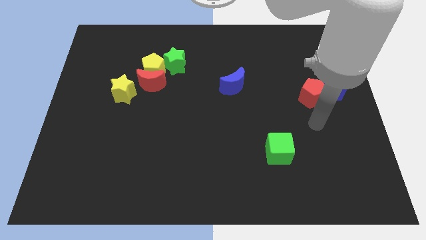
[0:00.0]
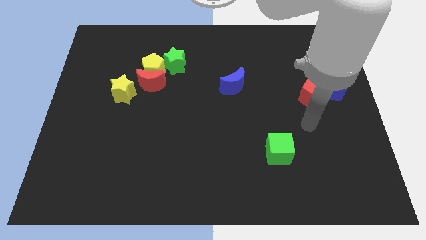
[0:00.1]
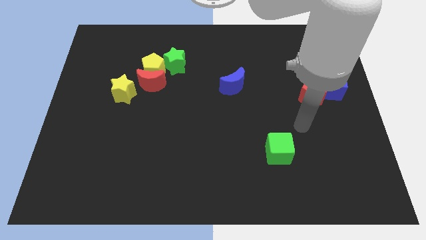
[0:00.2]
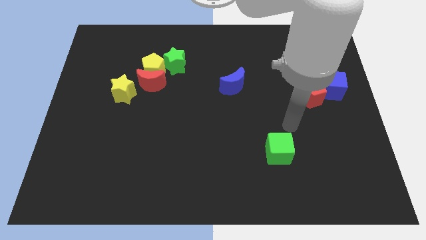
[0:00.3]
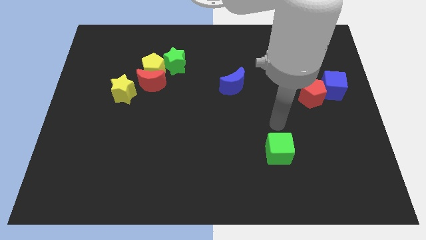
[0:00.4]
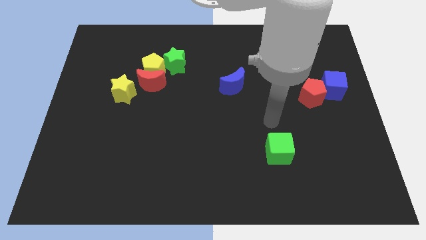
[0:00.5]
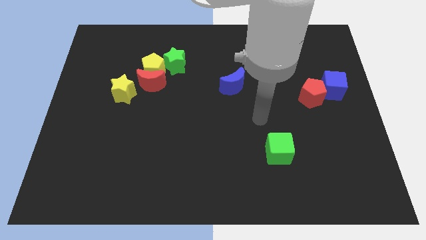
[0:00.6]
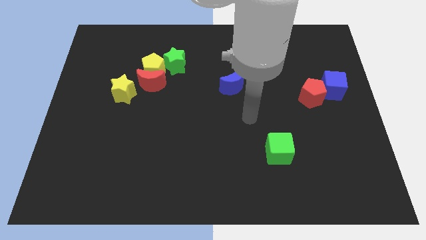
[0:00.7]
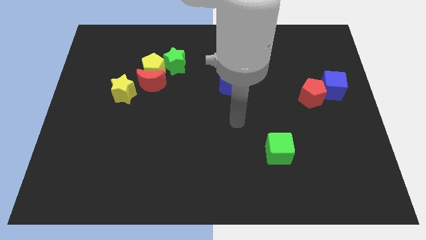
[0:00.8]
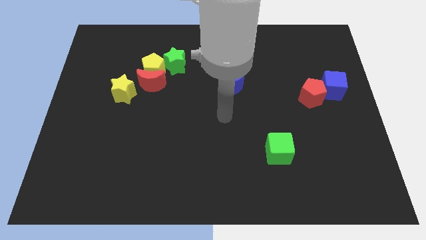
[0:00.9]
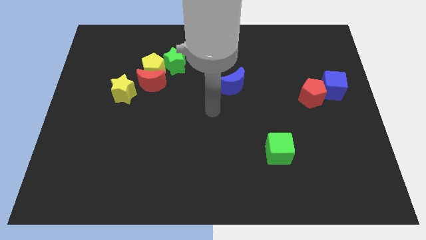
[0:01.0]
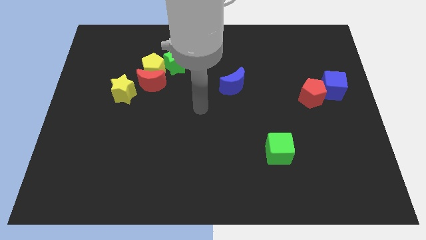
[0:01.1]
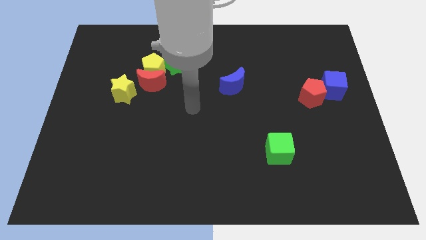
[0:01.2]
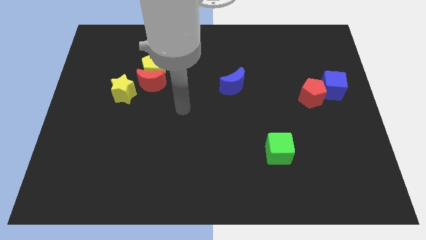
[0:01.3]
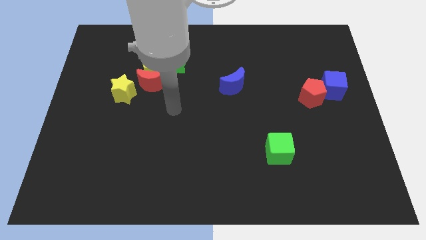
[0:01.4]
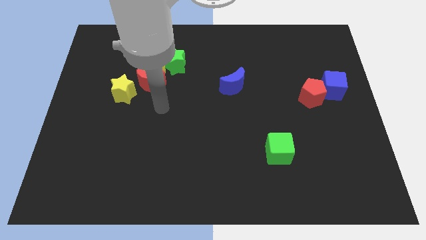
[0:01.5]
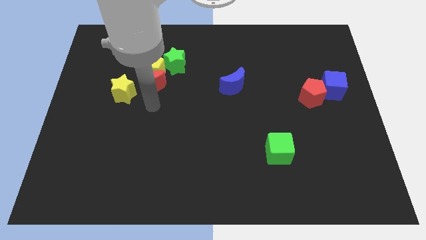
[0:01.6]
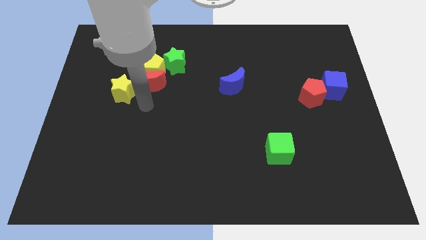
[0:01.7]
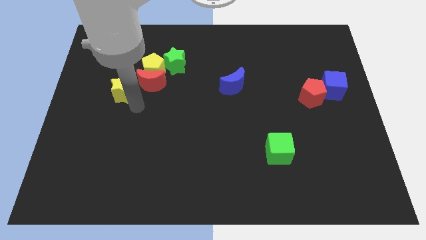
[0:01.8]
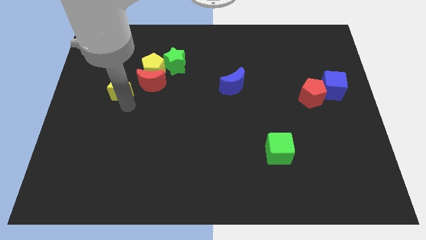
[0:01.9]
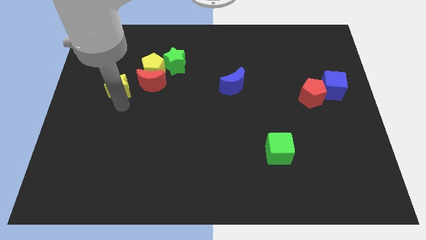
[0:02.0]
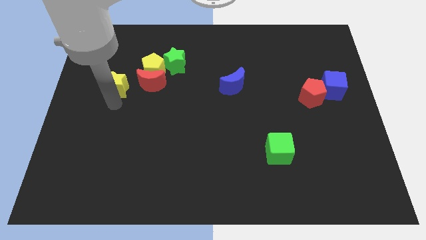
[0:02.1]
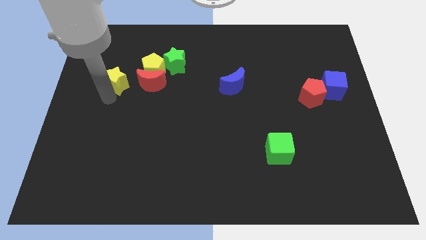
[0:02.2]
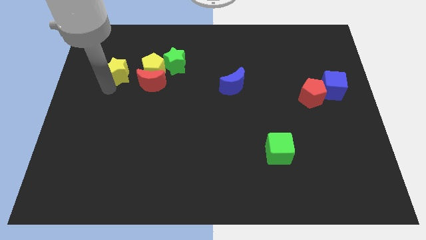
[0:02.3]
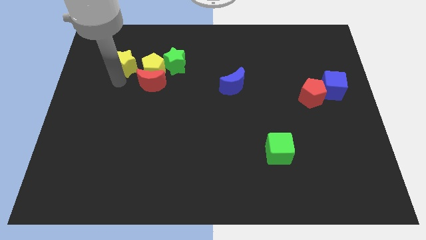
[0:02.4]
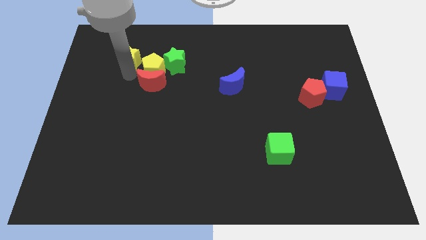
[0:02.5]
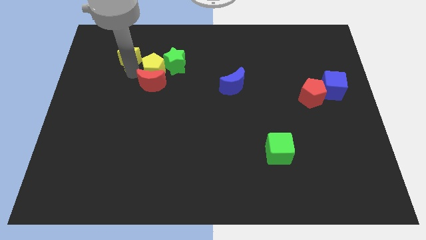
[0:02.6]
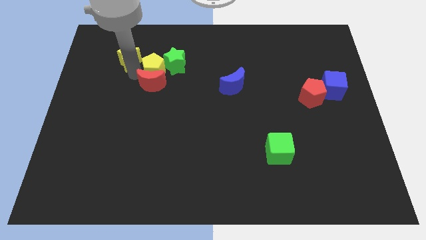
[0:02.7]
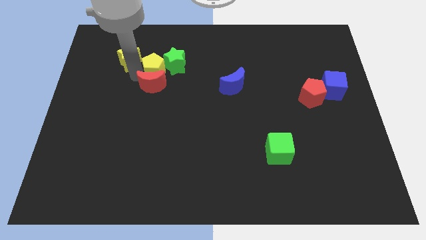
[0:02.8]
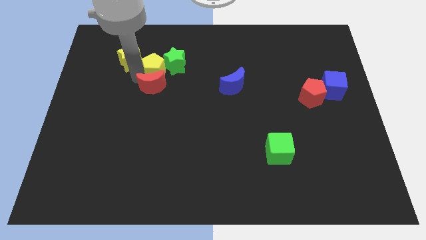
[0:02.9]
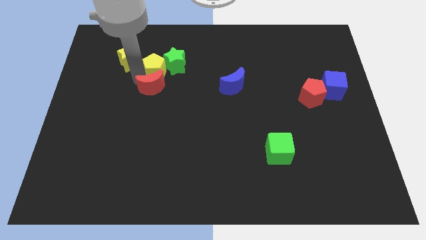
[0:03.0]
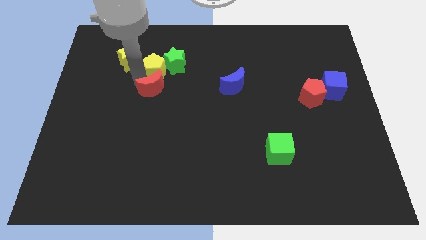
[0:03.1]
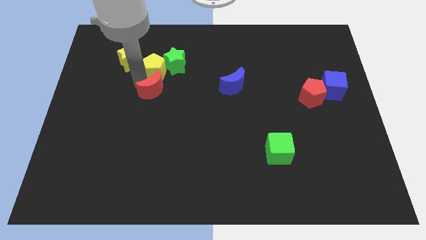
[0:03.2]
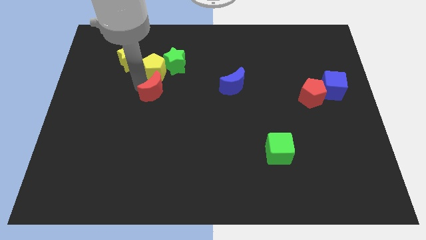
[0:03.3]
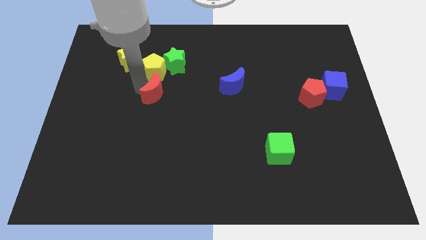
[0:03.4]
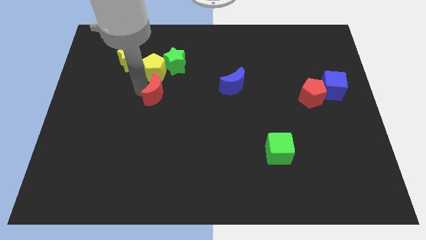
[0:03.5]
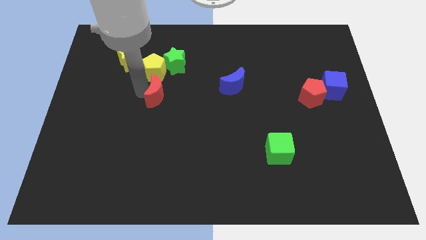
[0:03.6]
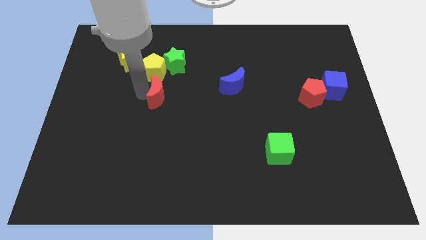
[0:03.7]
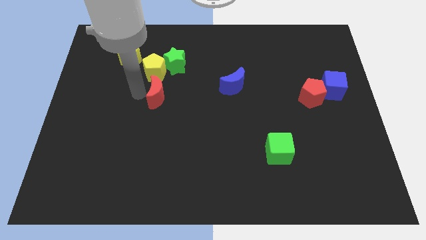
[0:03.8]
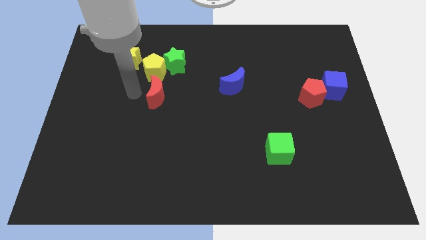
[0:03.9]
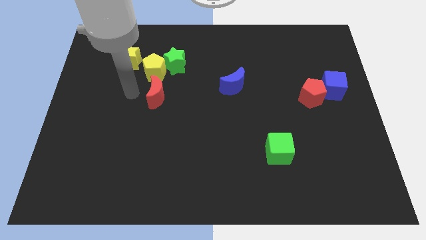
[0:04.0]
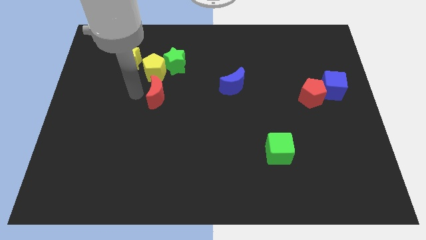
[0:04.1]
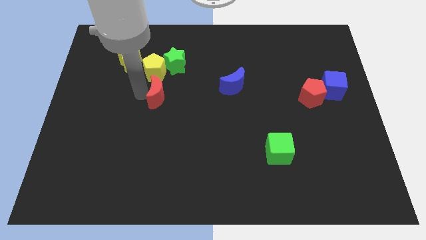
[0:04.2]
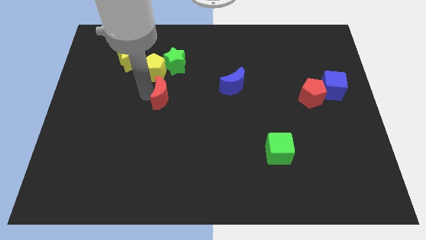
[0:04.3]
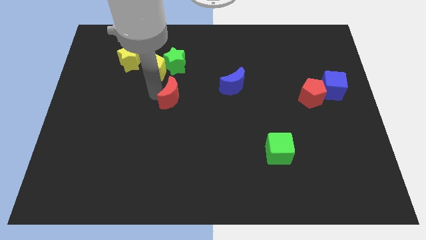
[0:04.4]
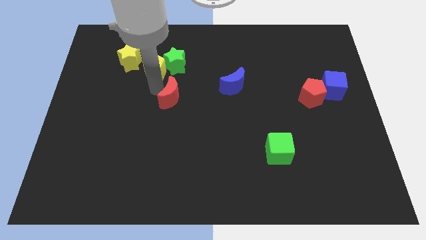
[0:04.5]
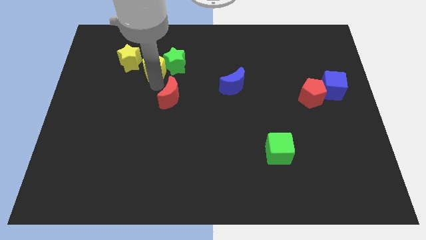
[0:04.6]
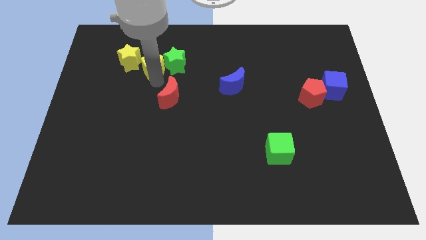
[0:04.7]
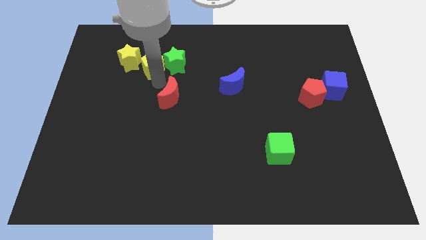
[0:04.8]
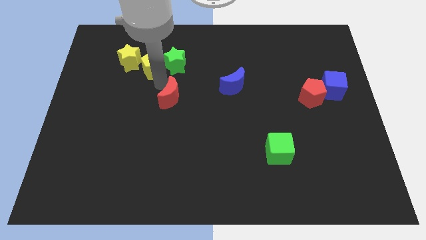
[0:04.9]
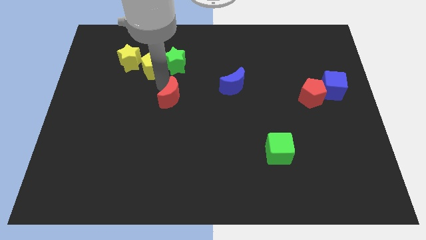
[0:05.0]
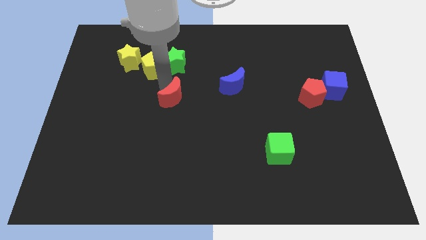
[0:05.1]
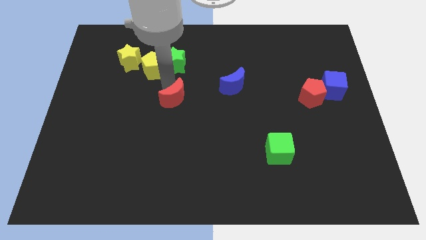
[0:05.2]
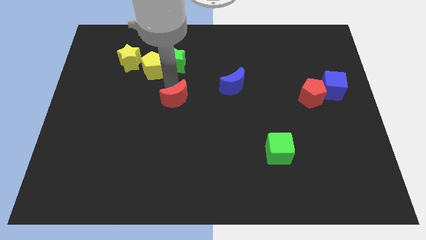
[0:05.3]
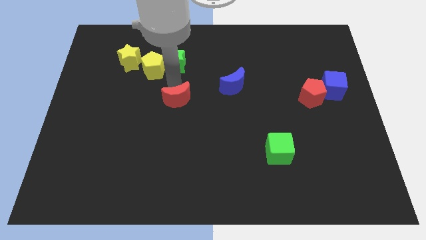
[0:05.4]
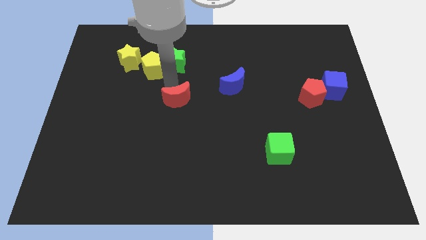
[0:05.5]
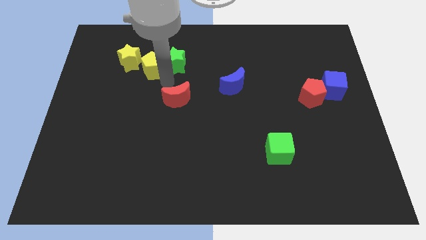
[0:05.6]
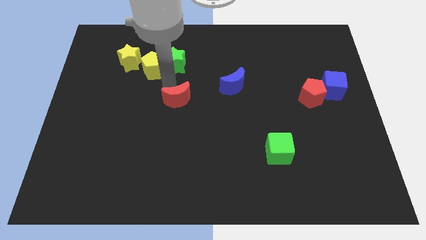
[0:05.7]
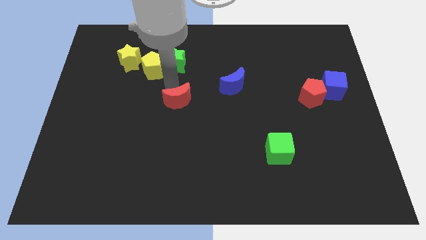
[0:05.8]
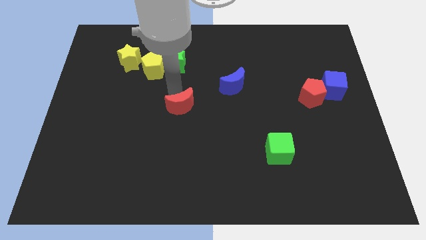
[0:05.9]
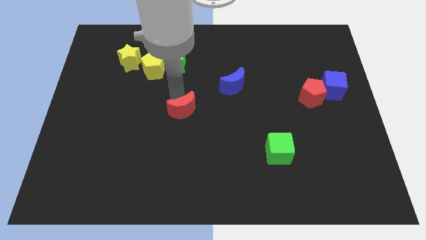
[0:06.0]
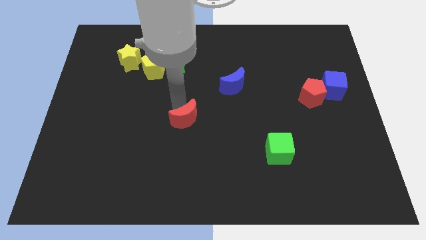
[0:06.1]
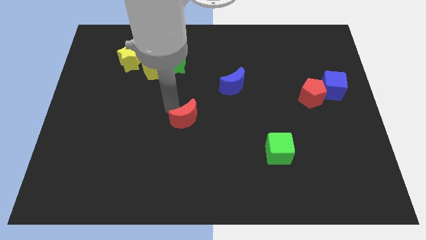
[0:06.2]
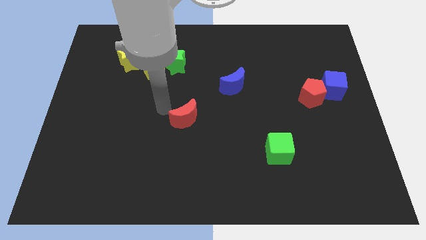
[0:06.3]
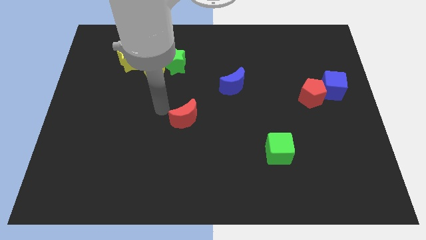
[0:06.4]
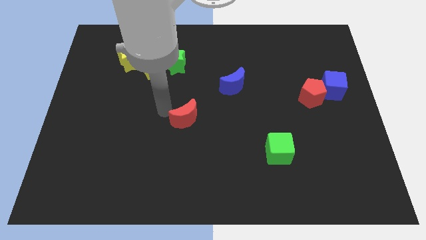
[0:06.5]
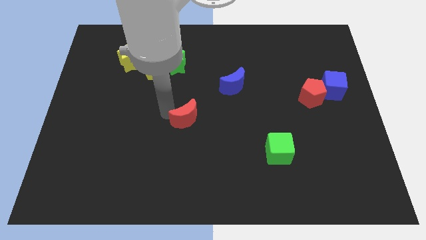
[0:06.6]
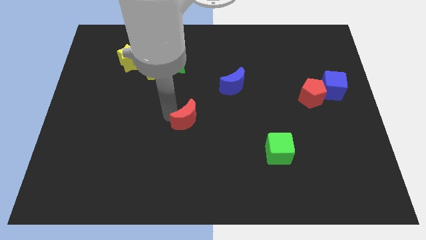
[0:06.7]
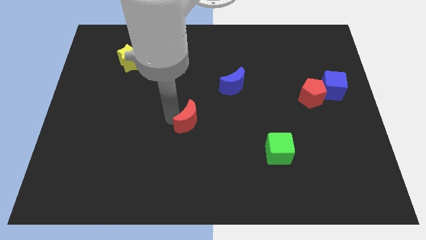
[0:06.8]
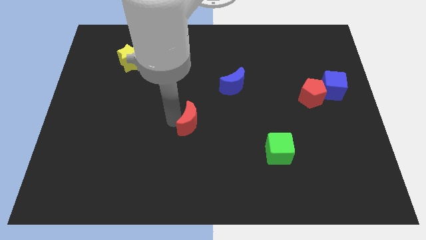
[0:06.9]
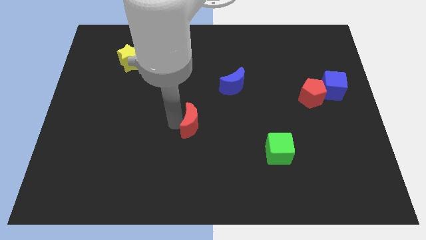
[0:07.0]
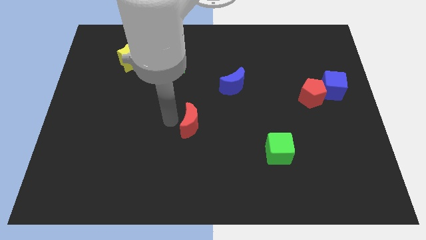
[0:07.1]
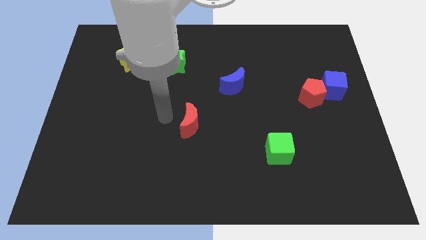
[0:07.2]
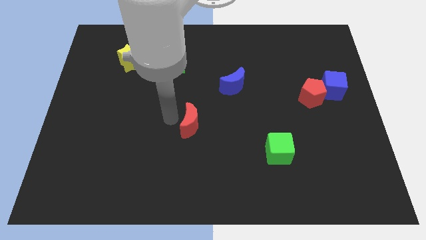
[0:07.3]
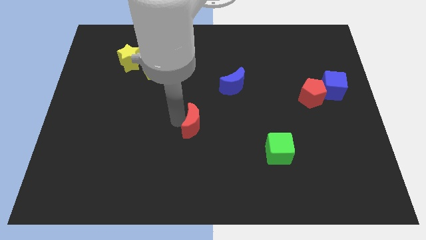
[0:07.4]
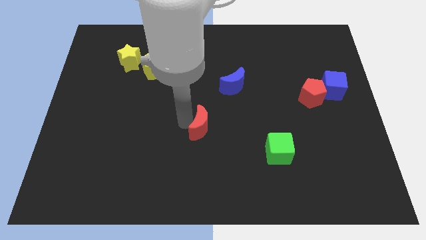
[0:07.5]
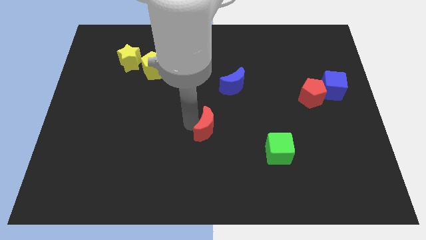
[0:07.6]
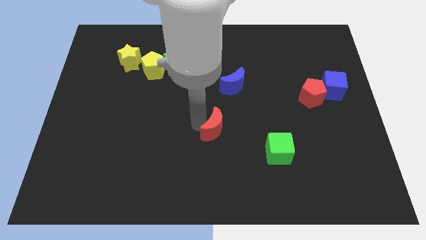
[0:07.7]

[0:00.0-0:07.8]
move the red moon down and right diagonally

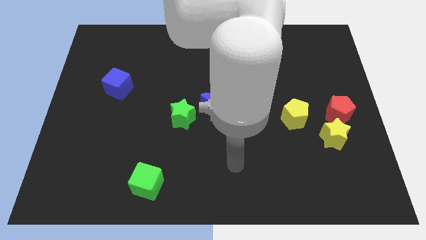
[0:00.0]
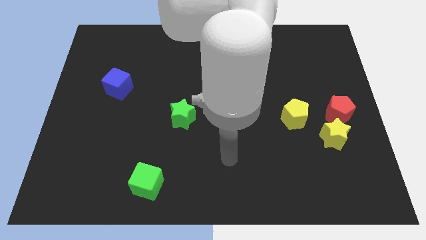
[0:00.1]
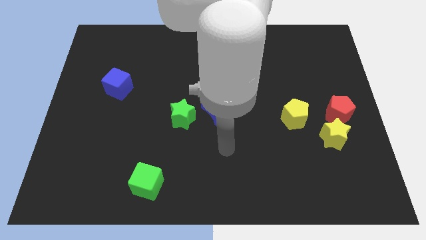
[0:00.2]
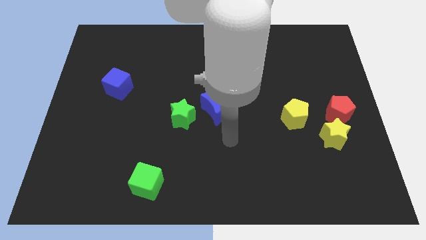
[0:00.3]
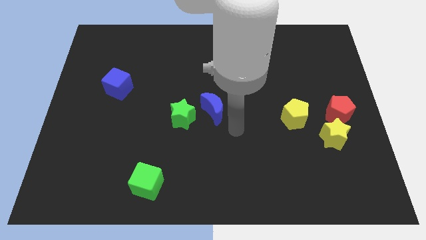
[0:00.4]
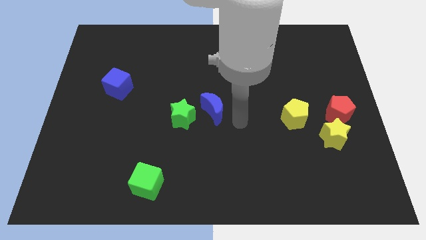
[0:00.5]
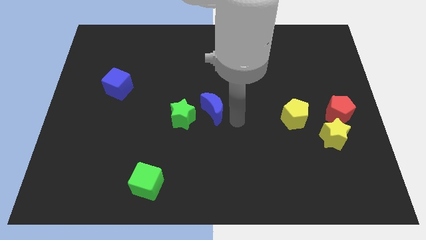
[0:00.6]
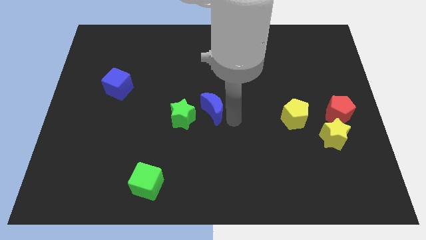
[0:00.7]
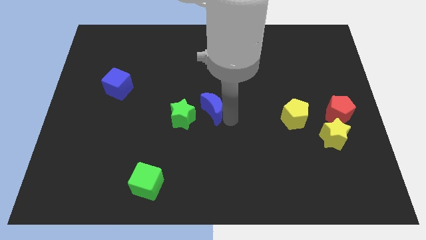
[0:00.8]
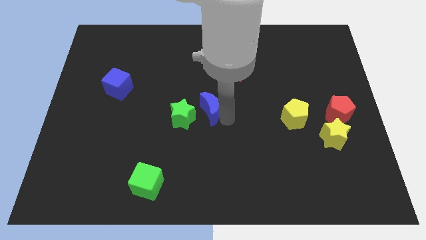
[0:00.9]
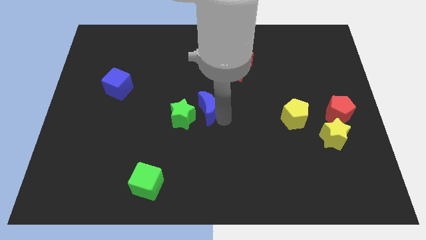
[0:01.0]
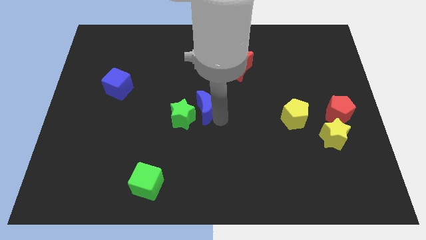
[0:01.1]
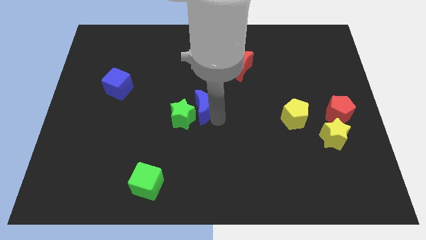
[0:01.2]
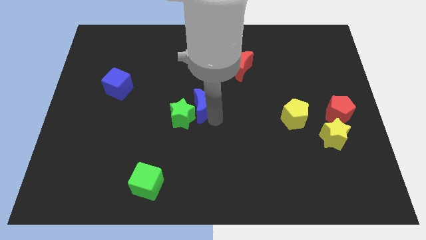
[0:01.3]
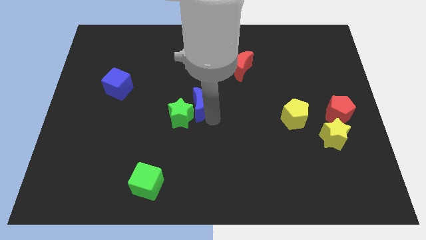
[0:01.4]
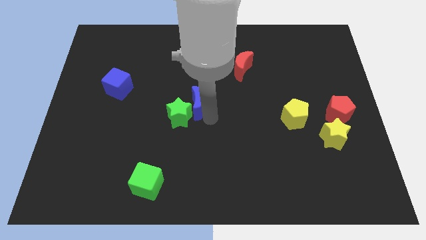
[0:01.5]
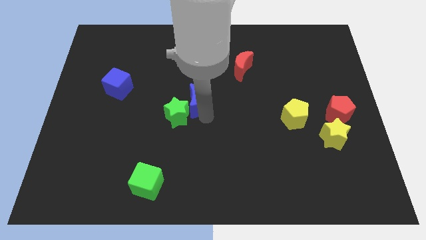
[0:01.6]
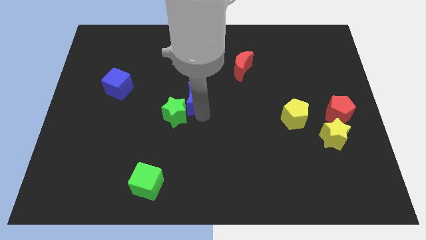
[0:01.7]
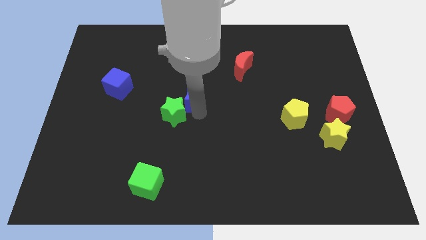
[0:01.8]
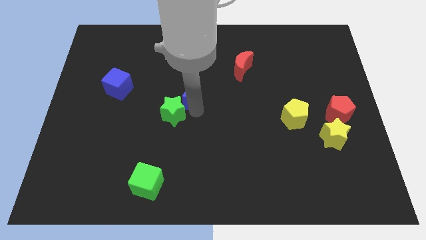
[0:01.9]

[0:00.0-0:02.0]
move the blue moon diagonally upwards and left a bit
